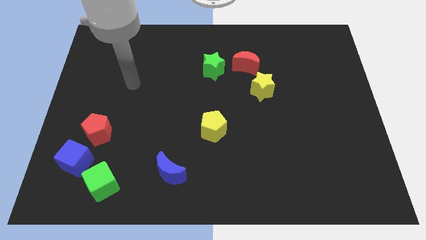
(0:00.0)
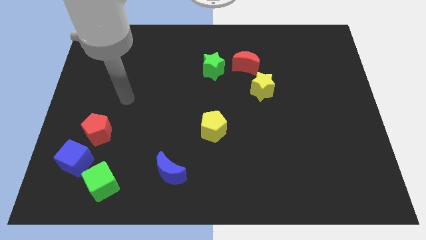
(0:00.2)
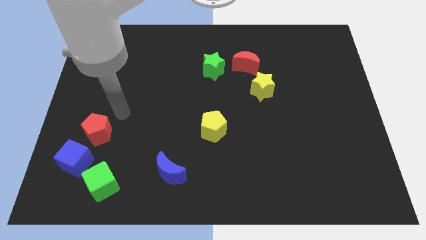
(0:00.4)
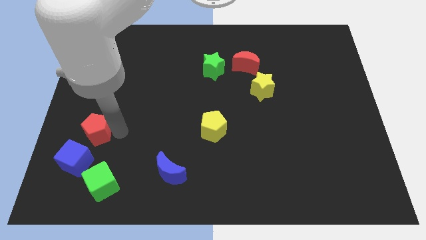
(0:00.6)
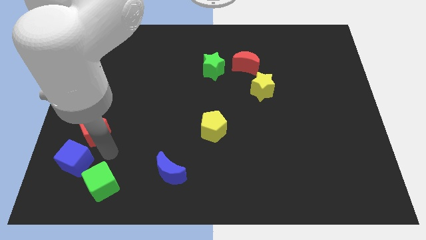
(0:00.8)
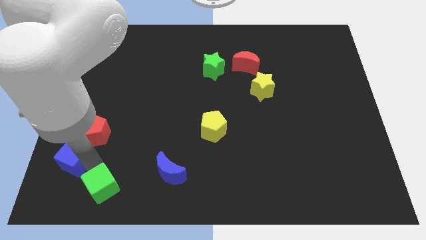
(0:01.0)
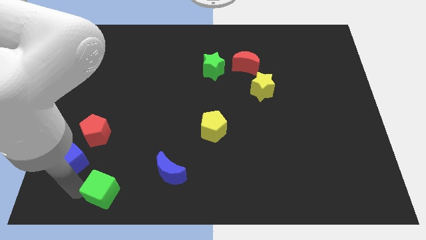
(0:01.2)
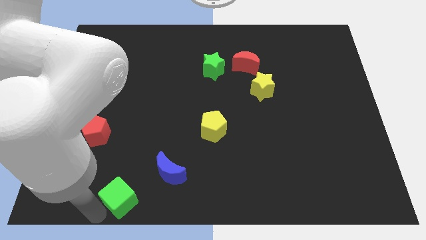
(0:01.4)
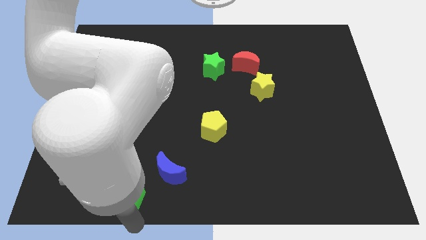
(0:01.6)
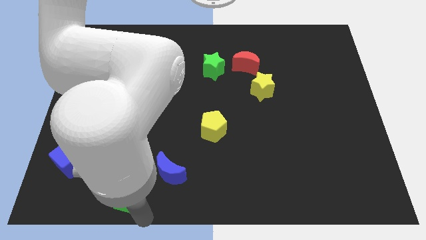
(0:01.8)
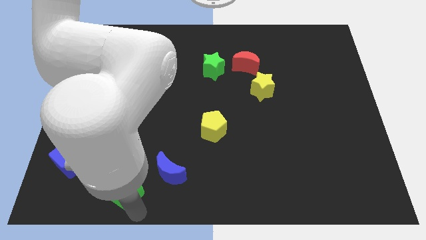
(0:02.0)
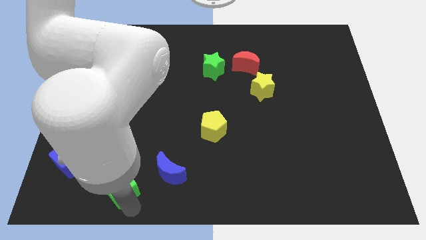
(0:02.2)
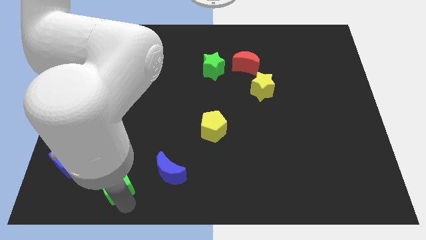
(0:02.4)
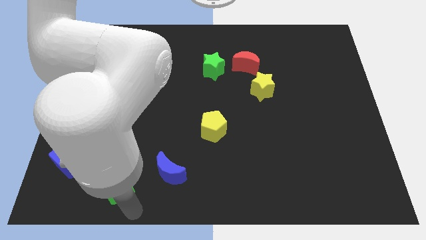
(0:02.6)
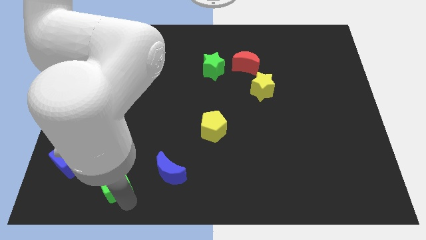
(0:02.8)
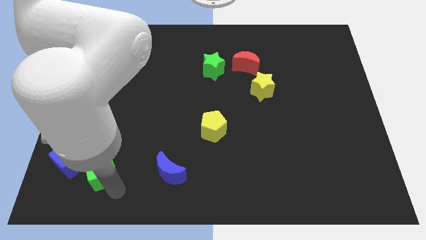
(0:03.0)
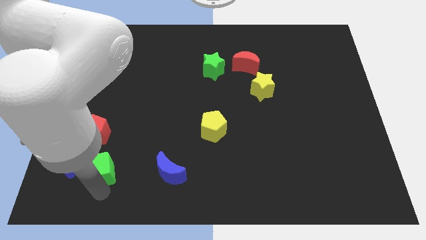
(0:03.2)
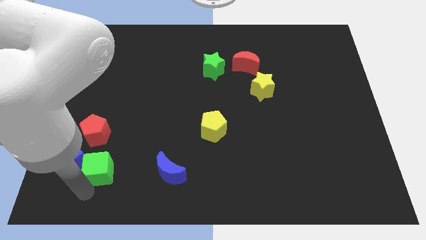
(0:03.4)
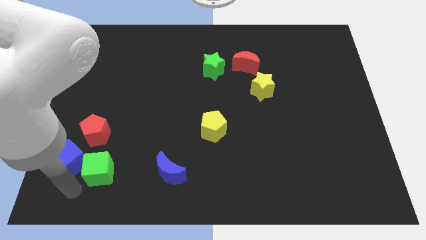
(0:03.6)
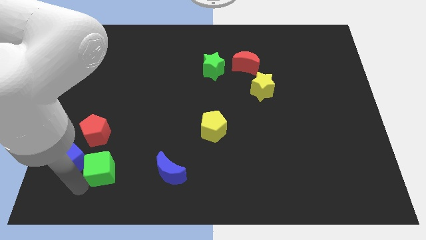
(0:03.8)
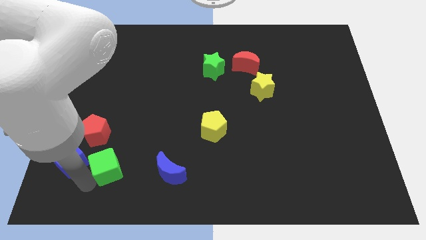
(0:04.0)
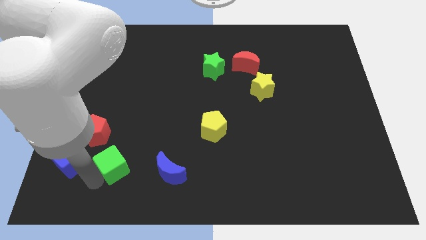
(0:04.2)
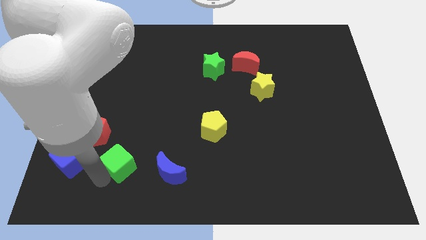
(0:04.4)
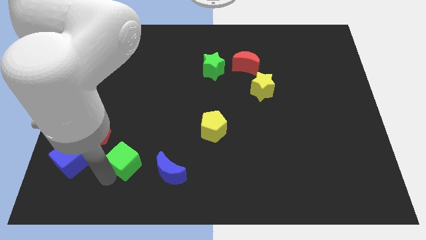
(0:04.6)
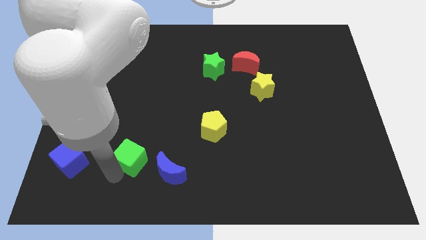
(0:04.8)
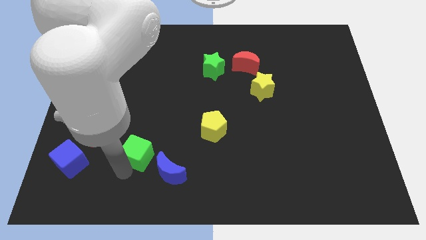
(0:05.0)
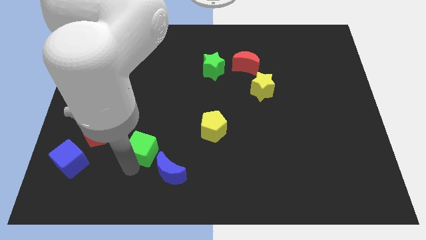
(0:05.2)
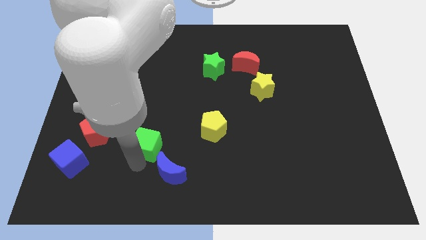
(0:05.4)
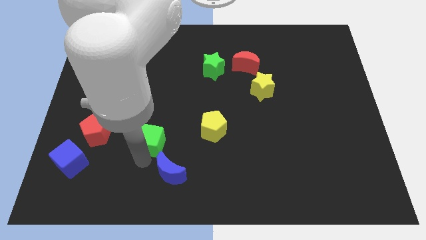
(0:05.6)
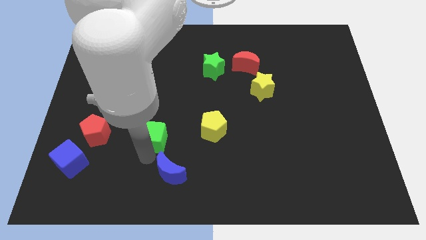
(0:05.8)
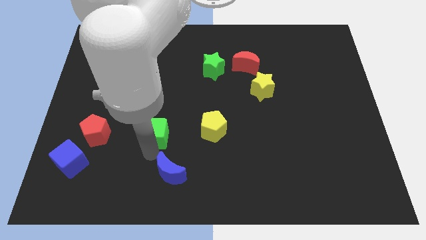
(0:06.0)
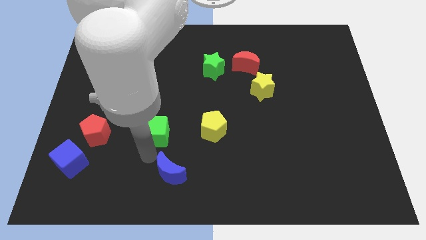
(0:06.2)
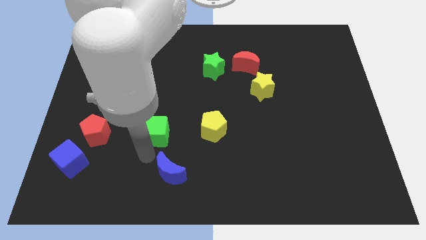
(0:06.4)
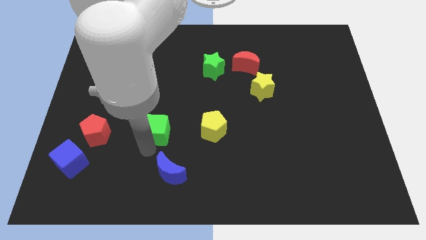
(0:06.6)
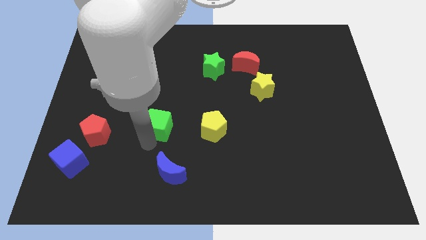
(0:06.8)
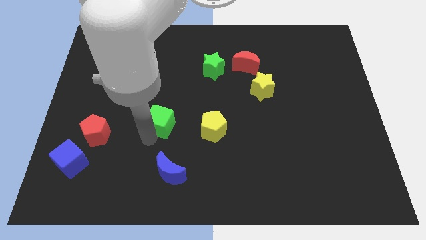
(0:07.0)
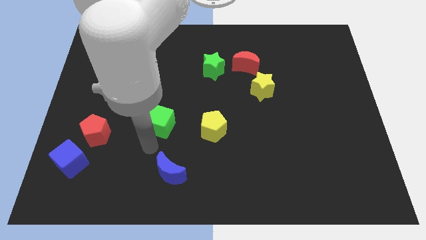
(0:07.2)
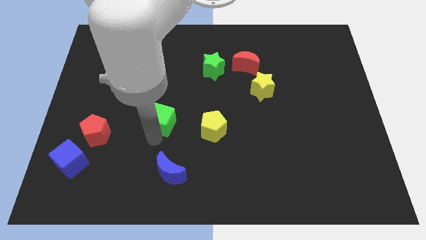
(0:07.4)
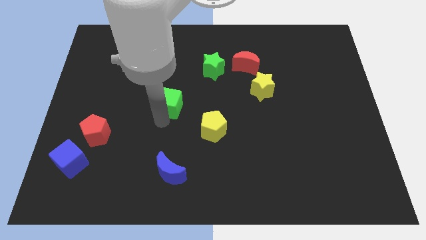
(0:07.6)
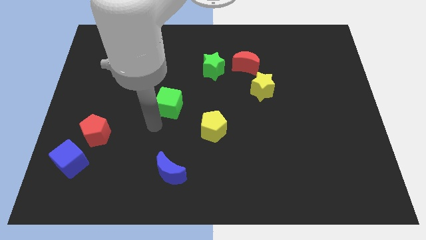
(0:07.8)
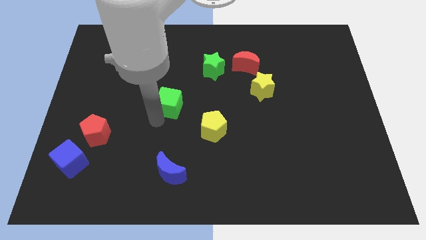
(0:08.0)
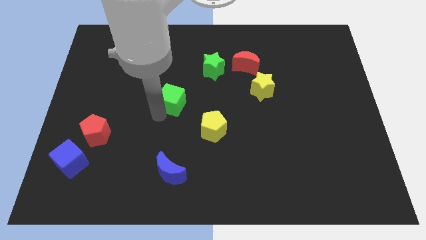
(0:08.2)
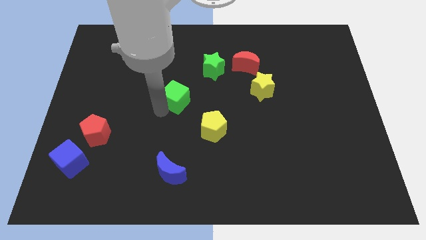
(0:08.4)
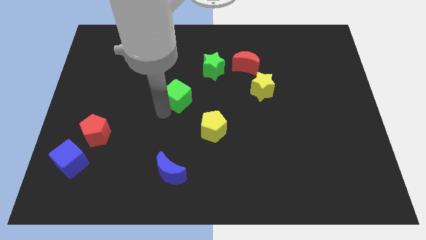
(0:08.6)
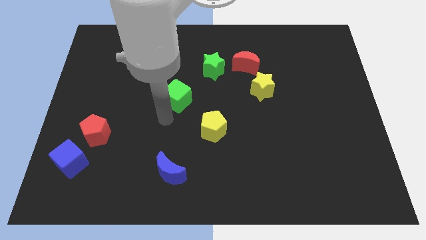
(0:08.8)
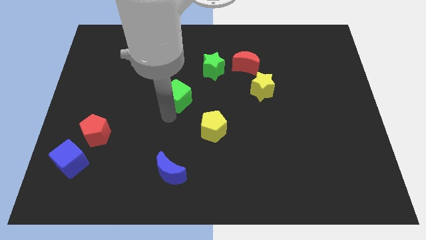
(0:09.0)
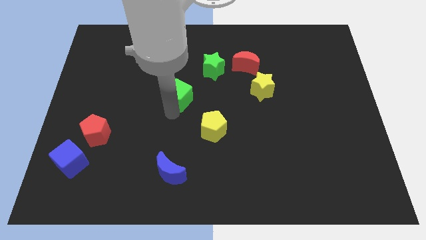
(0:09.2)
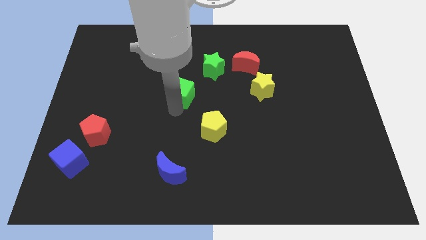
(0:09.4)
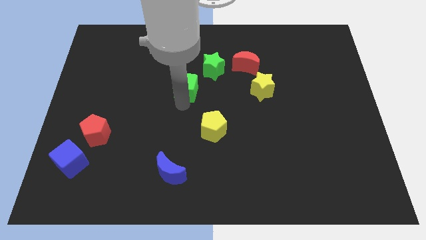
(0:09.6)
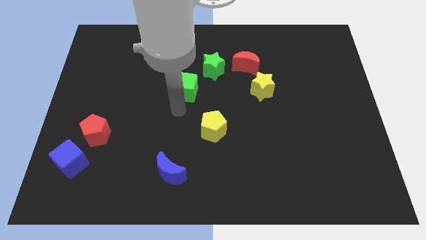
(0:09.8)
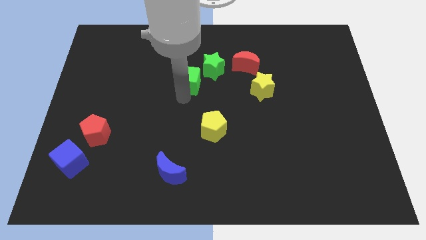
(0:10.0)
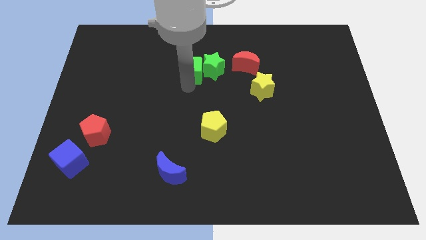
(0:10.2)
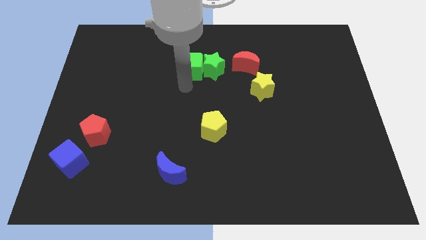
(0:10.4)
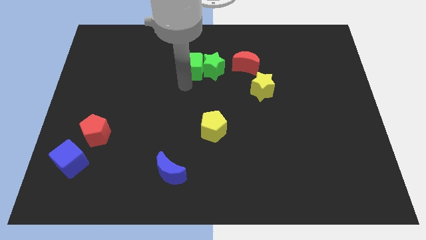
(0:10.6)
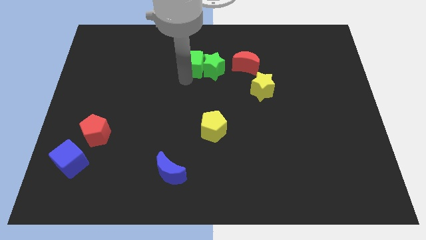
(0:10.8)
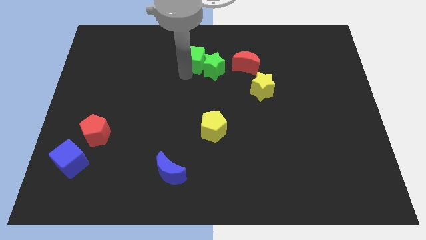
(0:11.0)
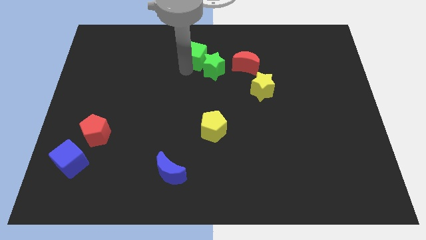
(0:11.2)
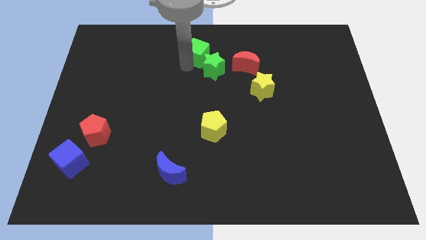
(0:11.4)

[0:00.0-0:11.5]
put the green cube to the towards your base
